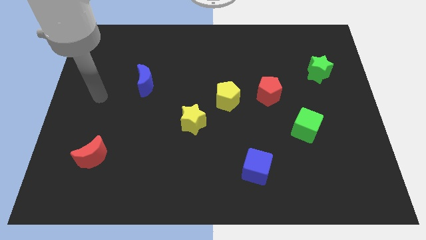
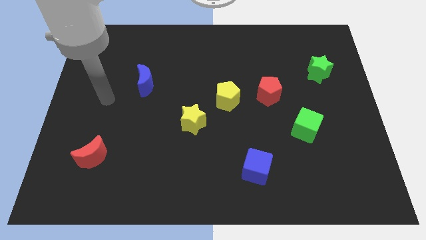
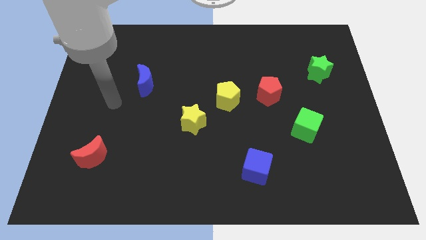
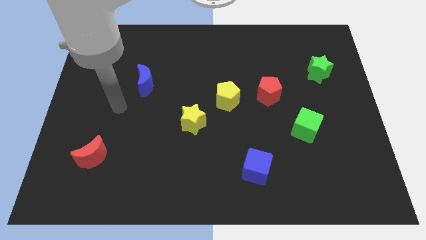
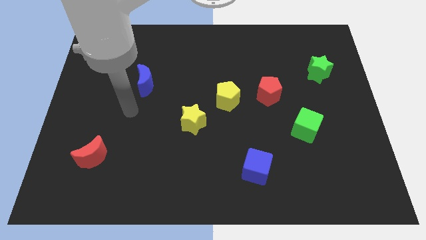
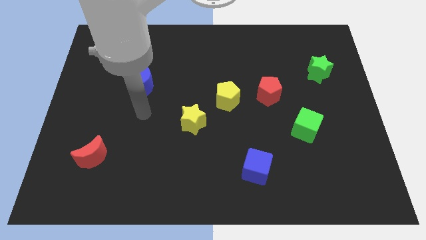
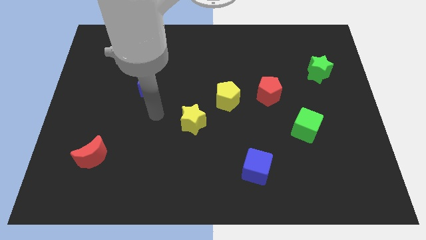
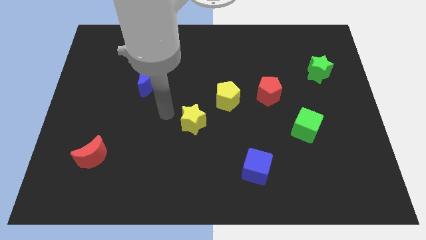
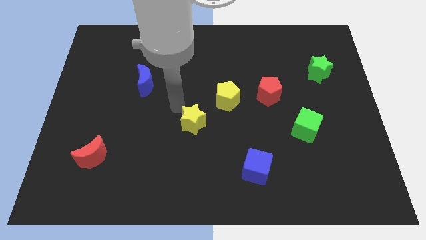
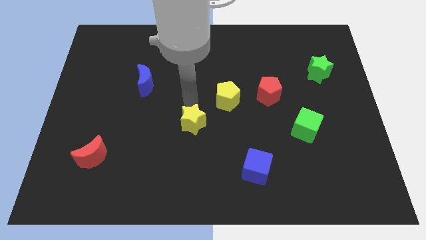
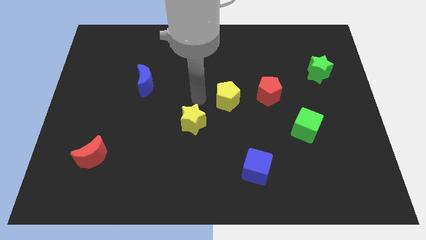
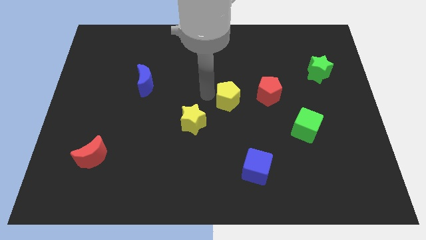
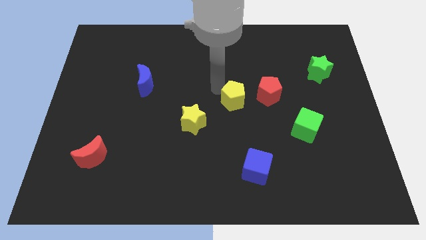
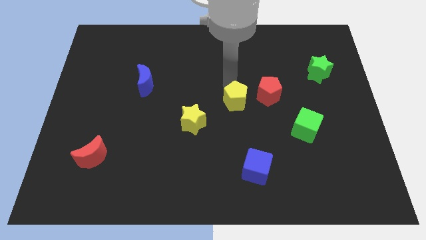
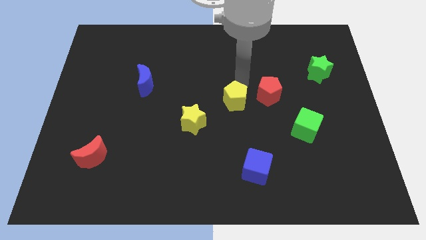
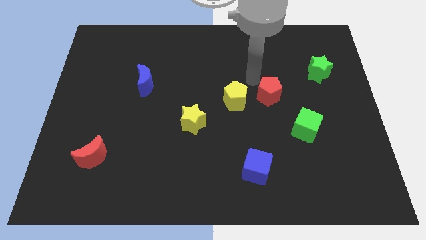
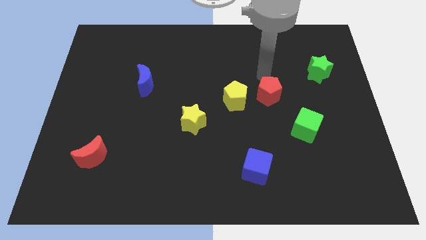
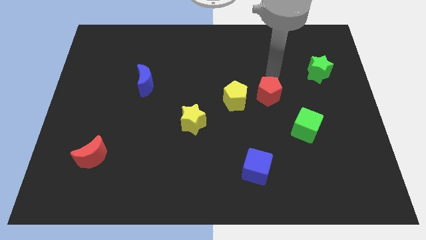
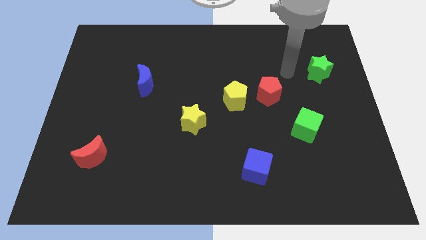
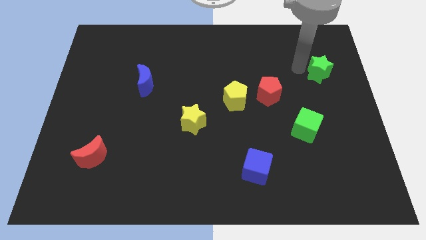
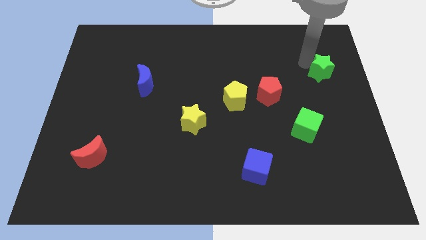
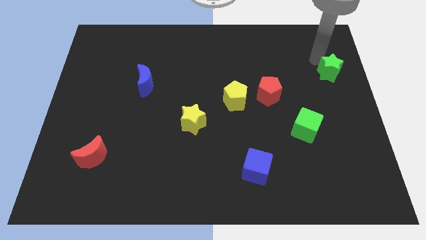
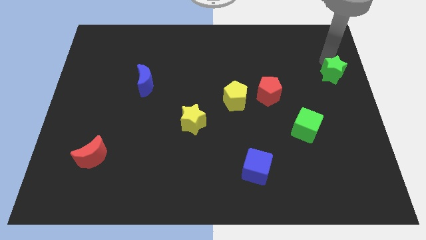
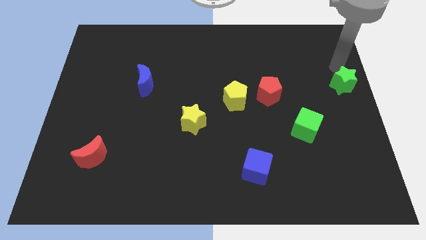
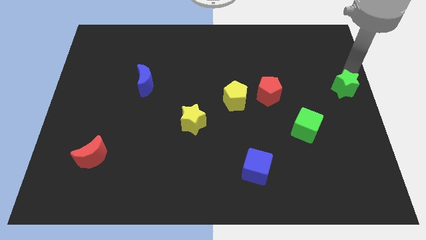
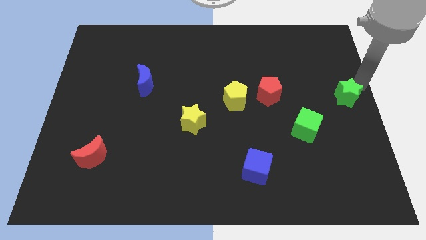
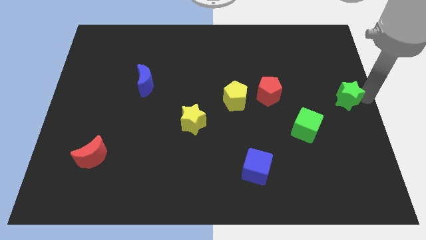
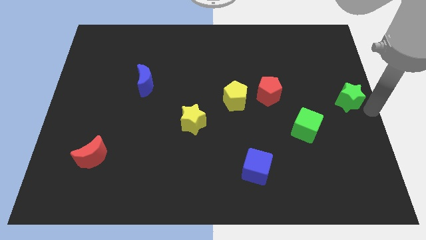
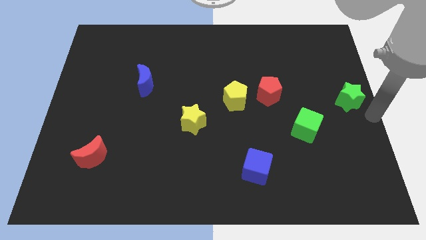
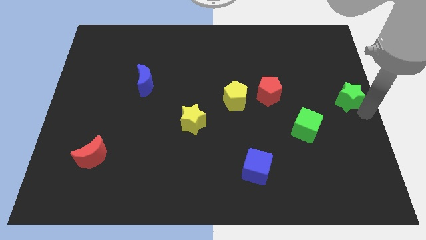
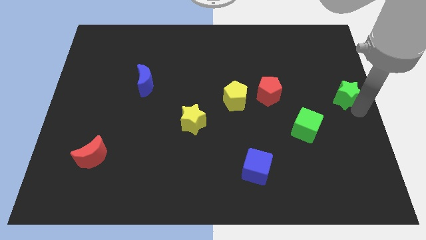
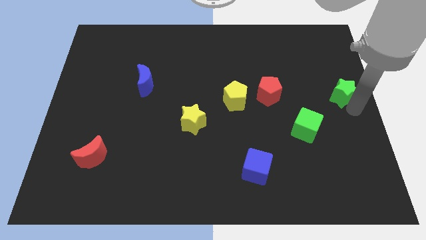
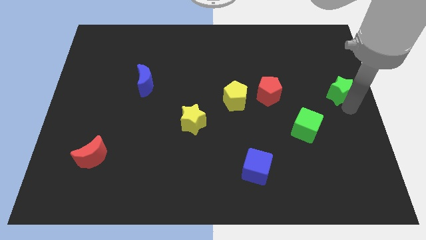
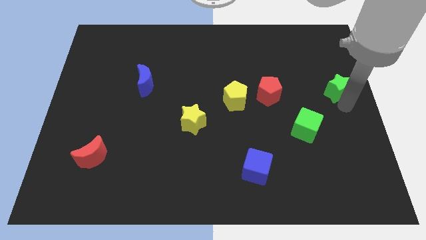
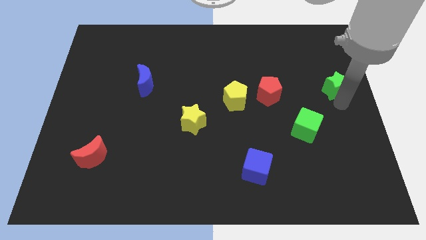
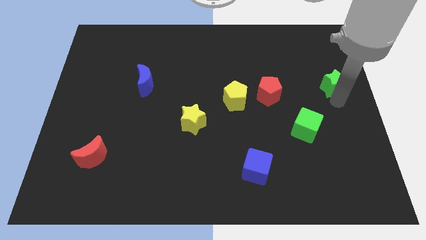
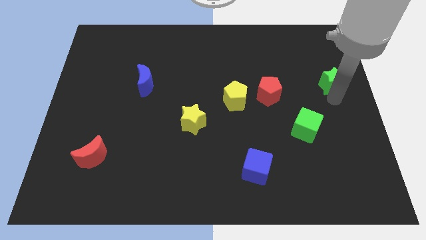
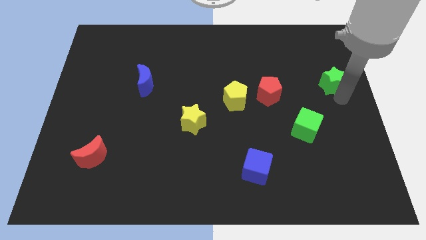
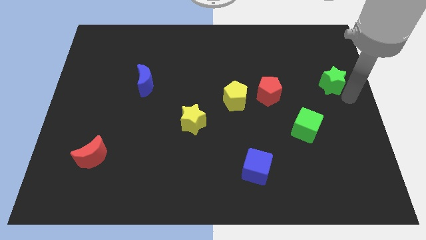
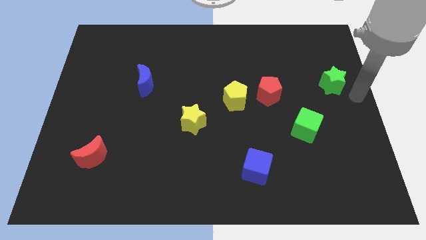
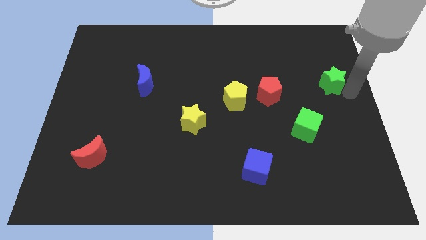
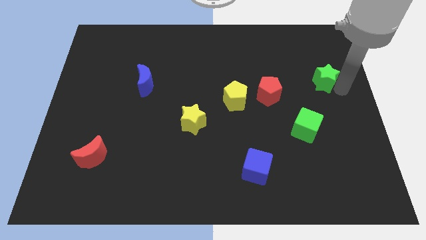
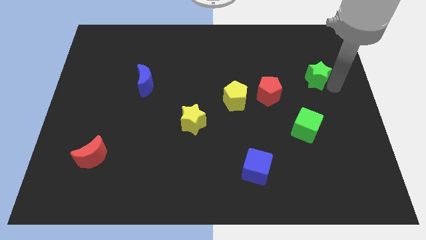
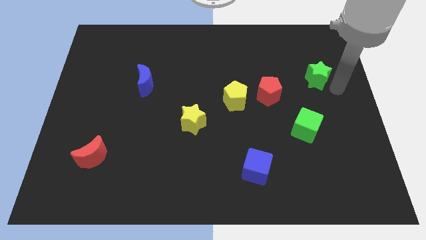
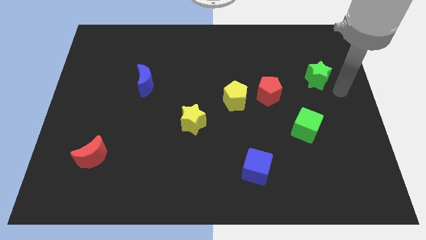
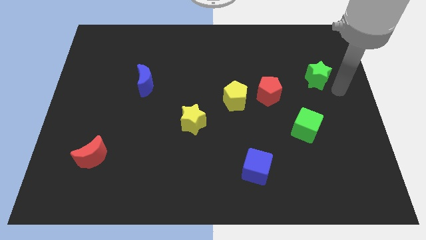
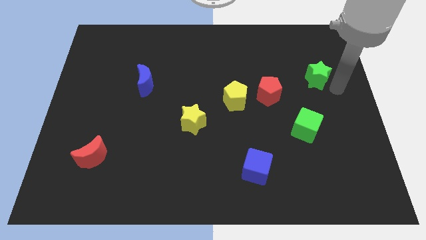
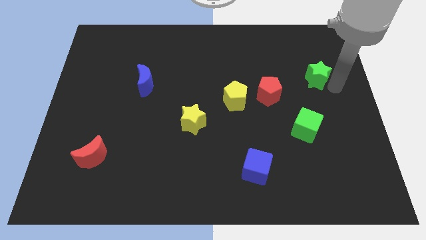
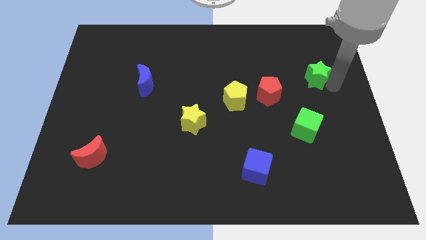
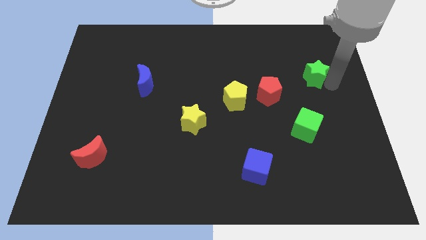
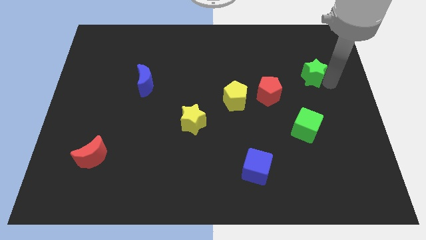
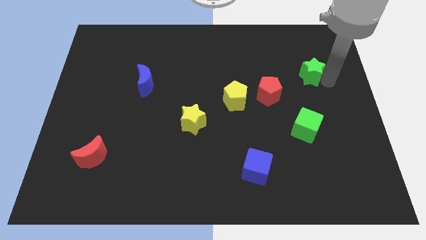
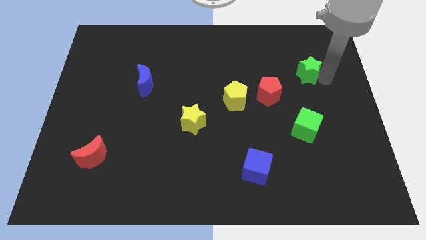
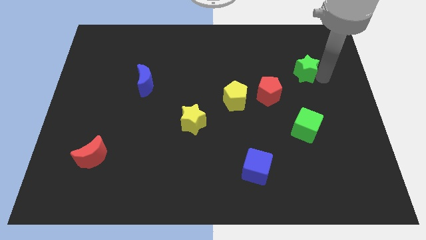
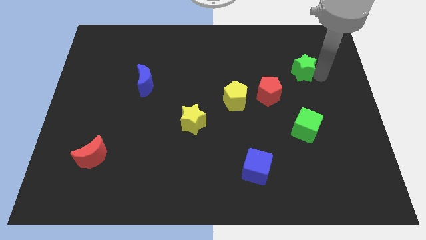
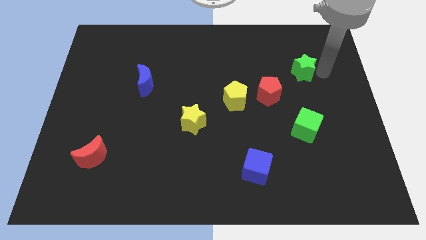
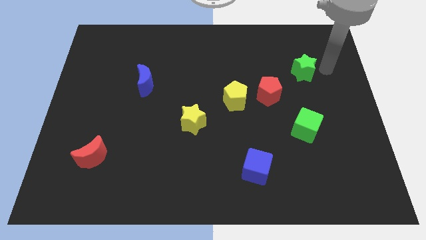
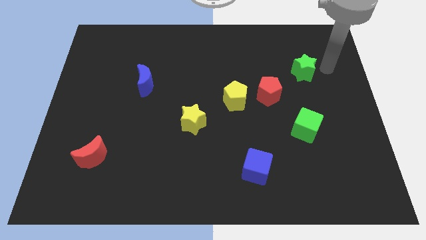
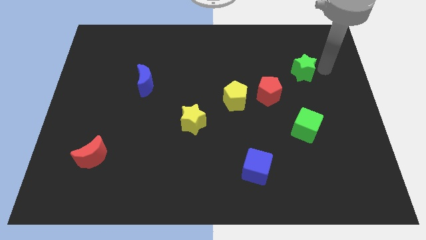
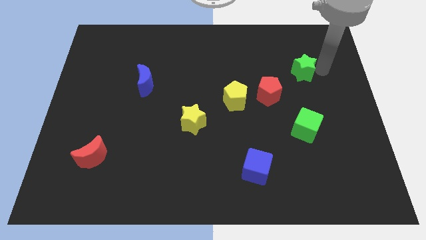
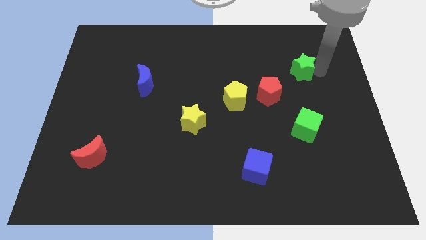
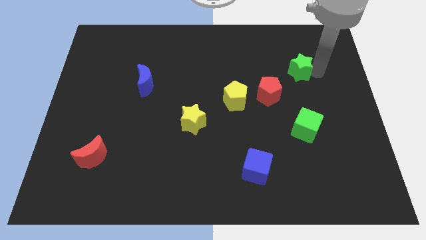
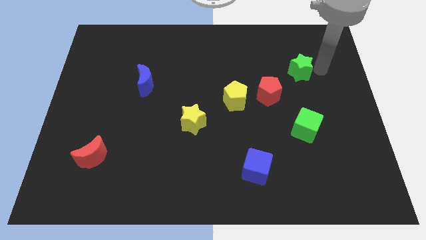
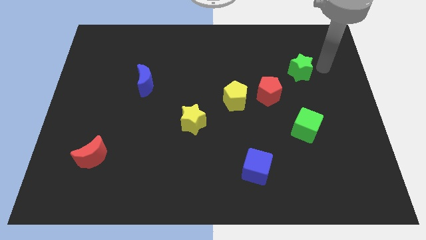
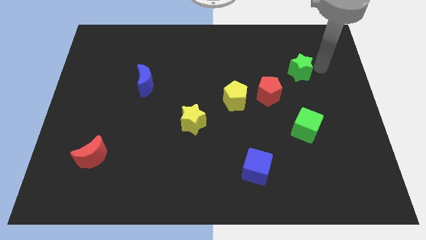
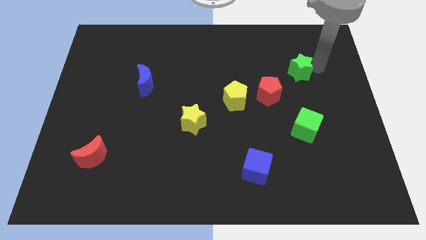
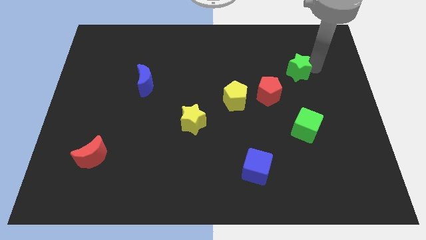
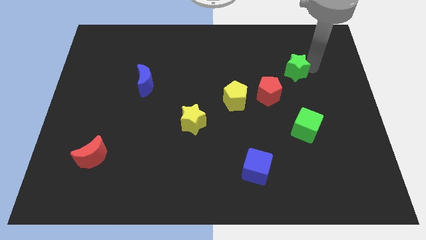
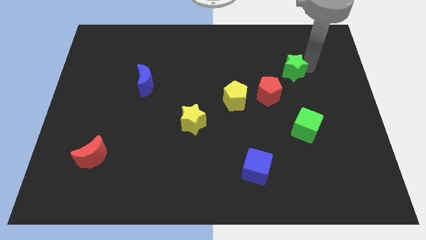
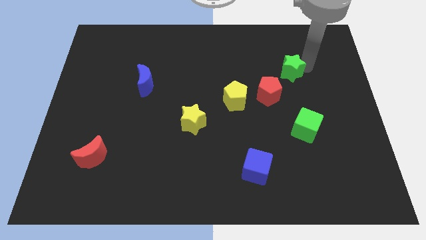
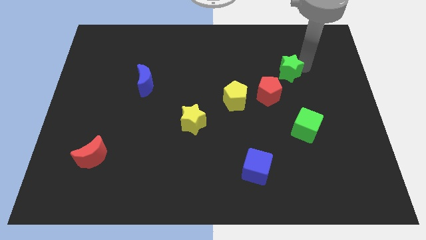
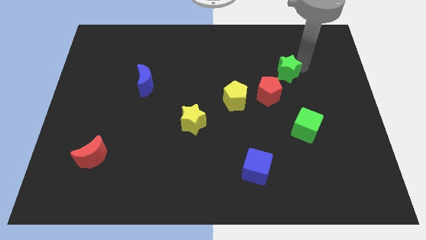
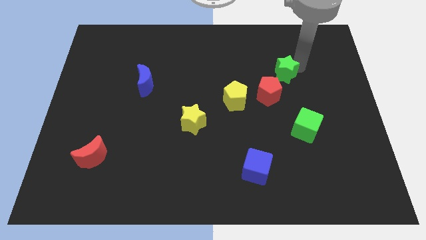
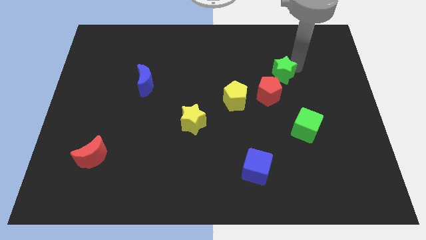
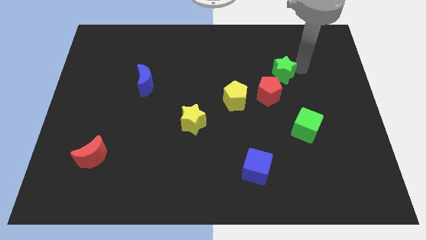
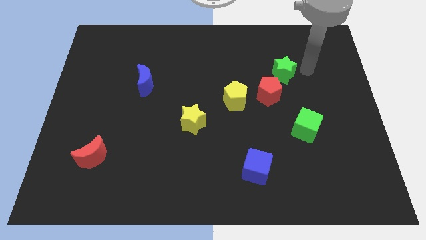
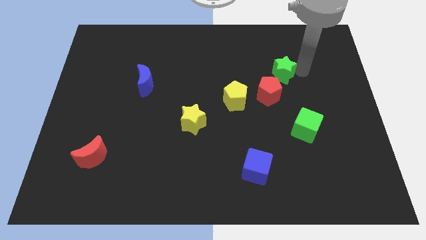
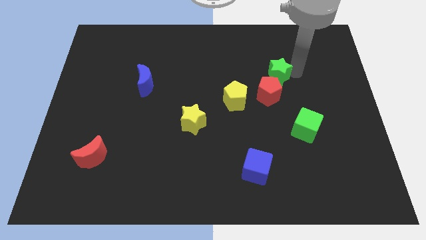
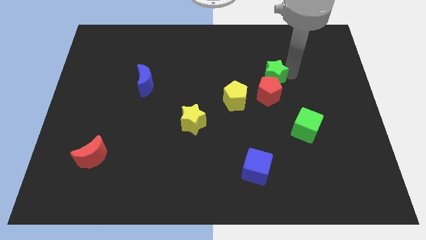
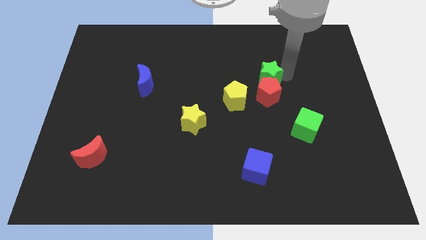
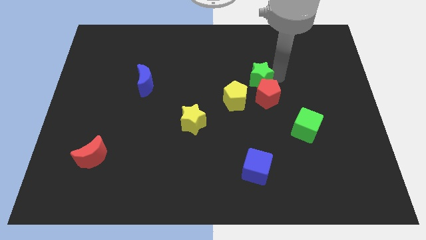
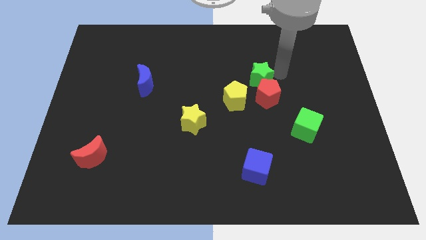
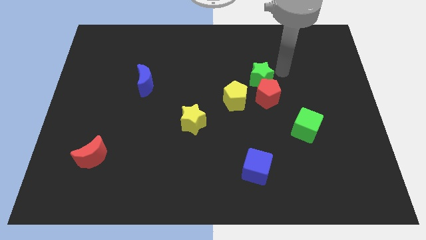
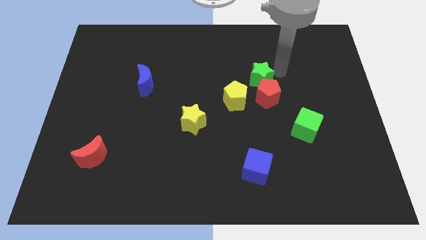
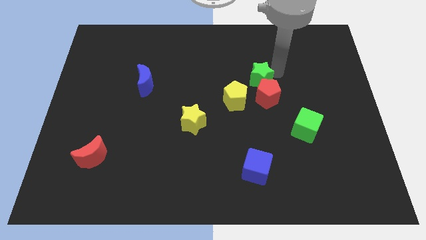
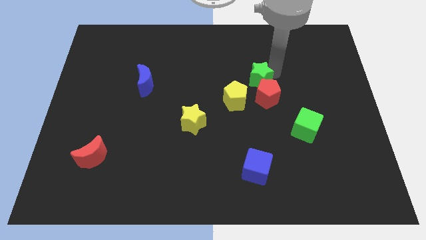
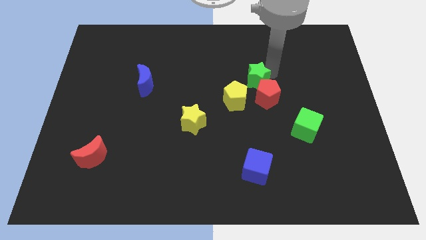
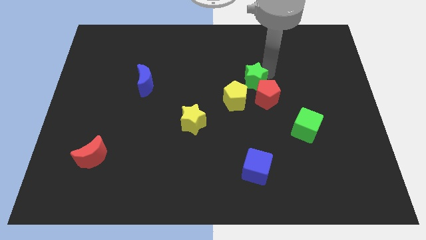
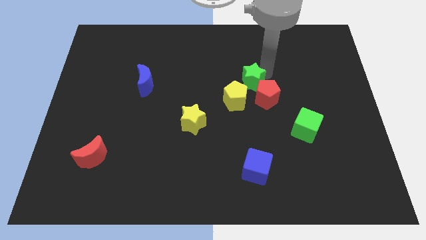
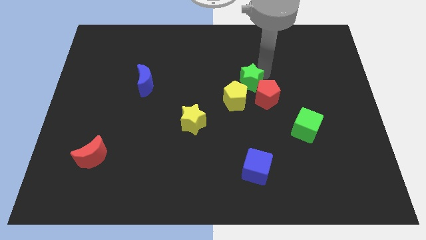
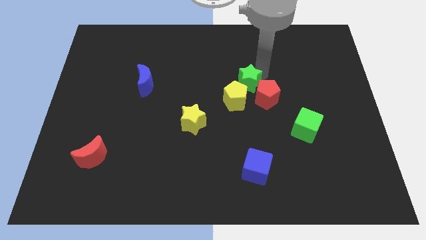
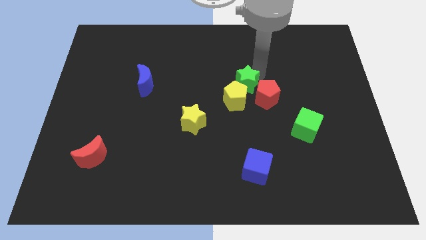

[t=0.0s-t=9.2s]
put the green star towards the yellow pentagon
